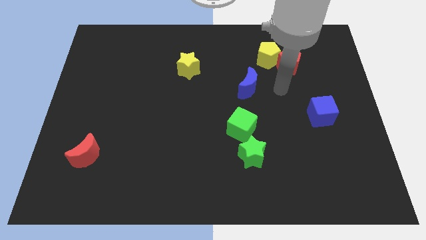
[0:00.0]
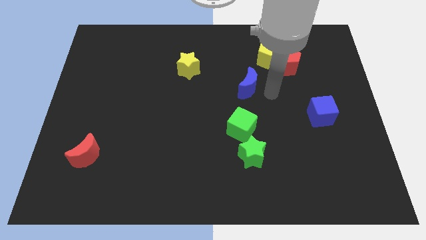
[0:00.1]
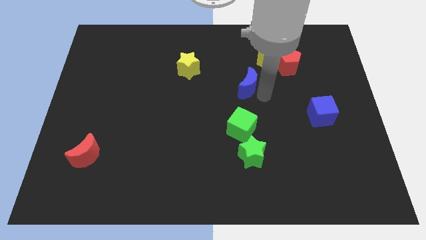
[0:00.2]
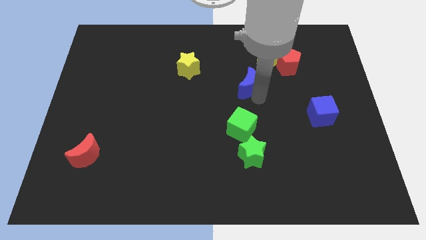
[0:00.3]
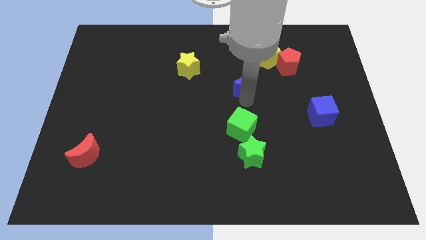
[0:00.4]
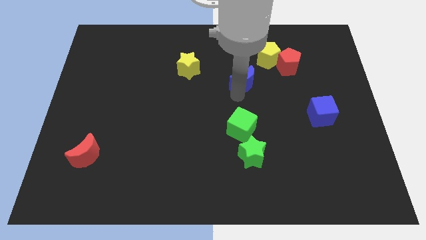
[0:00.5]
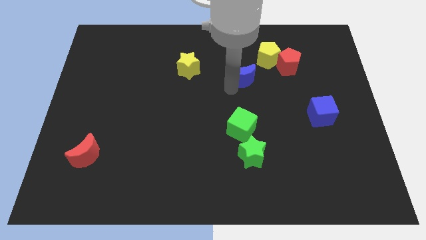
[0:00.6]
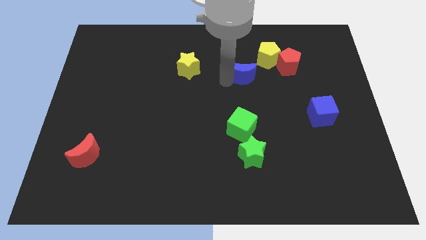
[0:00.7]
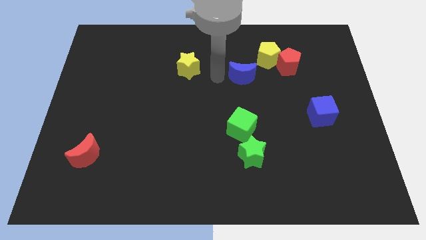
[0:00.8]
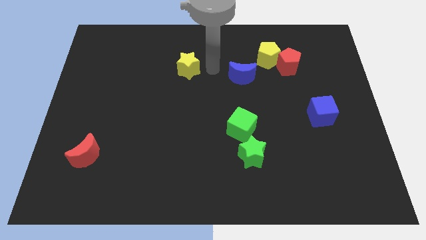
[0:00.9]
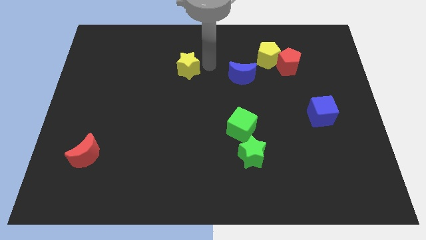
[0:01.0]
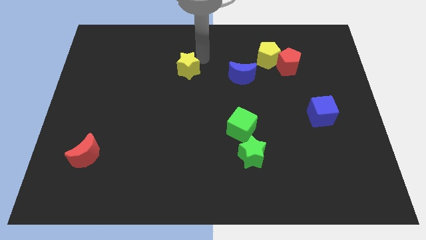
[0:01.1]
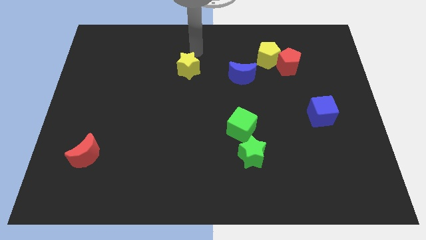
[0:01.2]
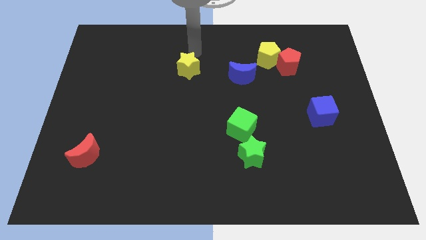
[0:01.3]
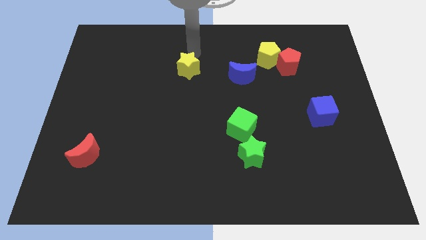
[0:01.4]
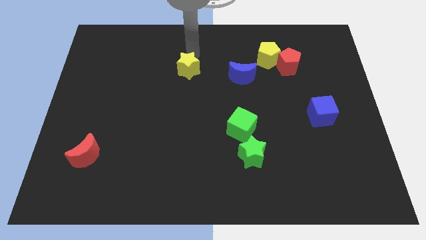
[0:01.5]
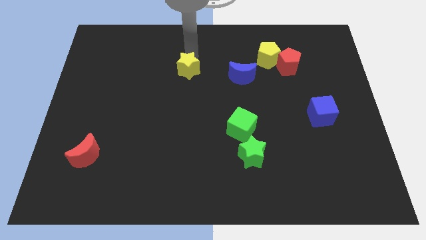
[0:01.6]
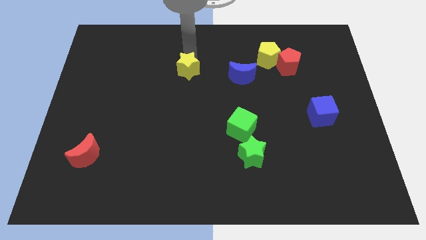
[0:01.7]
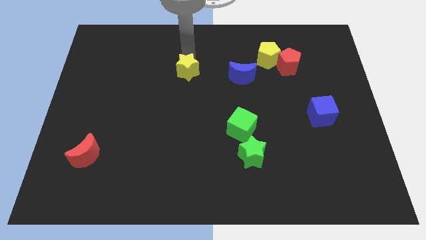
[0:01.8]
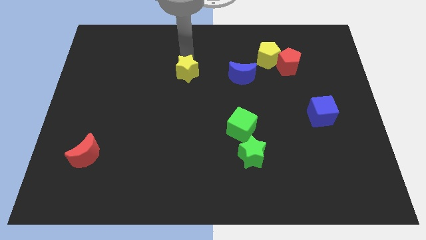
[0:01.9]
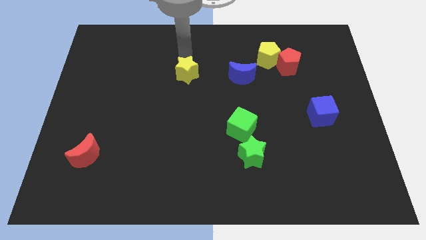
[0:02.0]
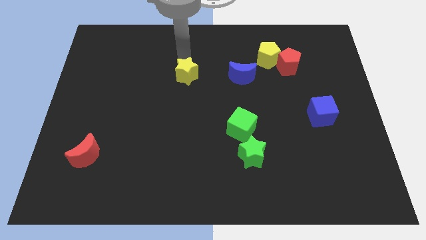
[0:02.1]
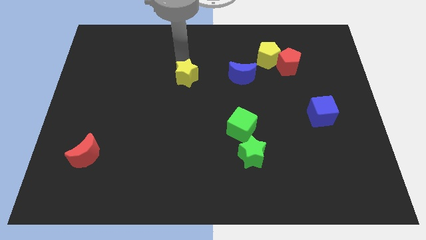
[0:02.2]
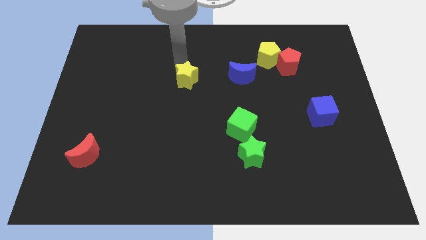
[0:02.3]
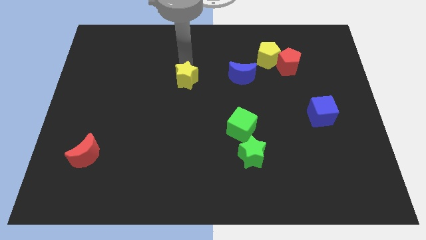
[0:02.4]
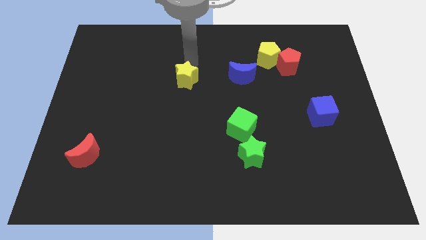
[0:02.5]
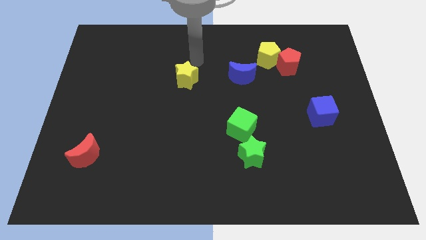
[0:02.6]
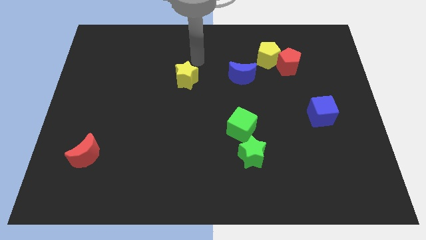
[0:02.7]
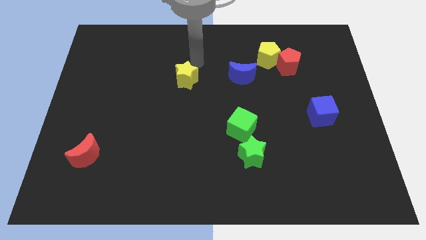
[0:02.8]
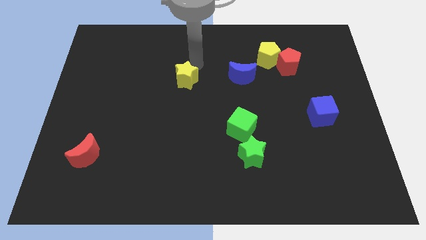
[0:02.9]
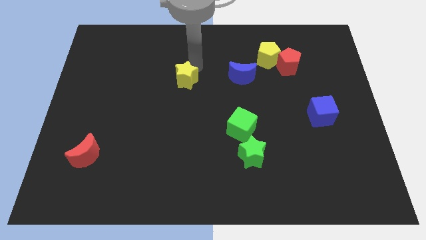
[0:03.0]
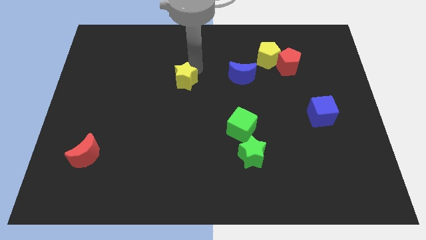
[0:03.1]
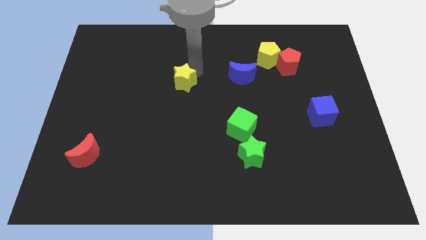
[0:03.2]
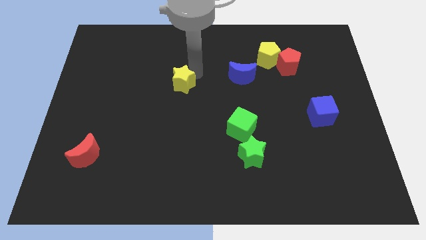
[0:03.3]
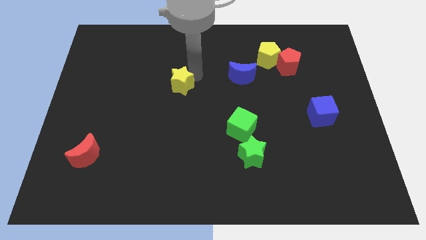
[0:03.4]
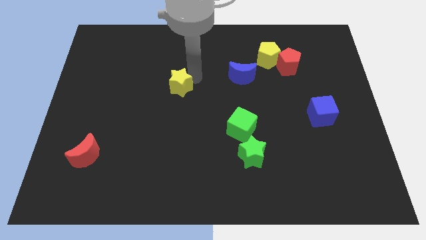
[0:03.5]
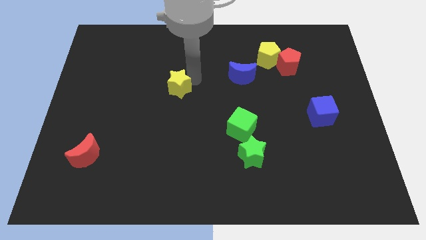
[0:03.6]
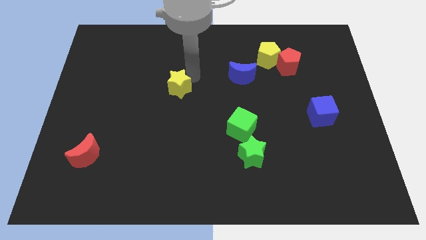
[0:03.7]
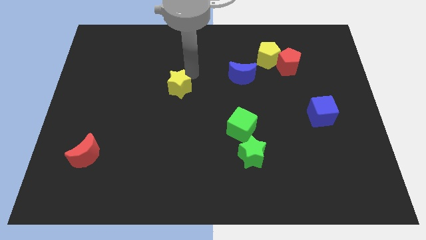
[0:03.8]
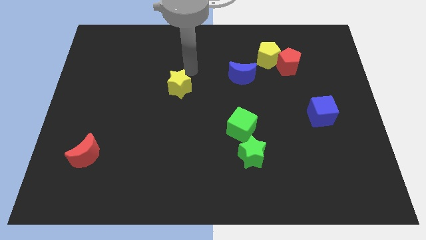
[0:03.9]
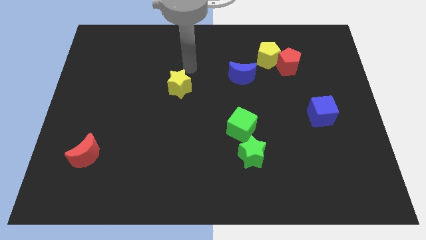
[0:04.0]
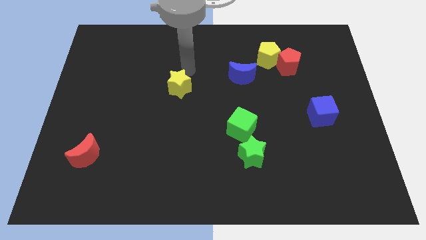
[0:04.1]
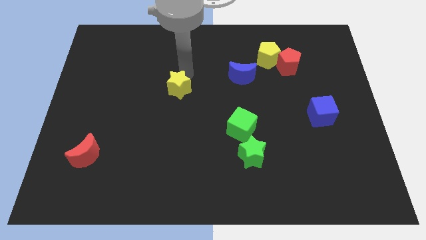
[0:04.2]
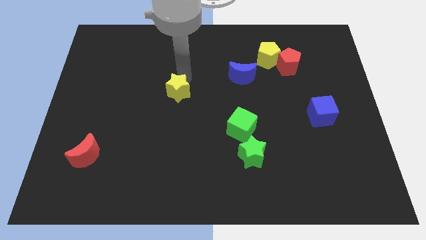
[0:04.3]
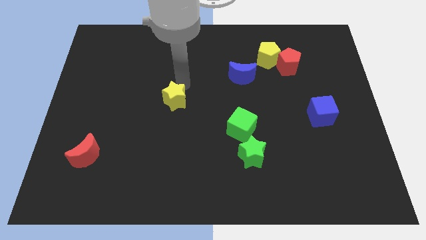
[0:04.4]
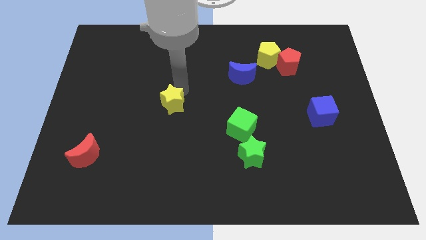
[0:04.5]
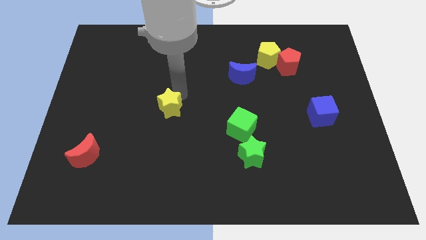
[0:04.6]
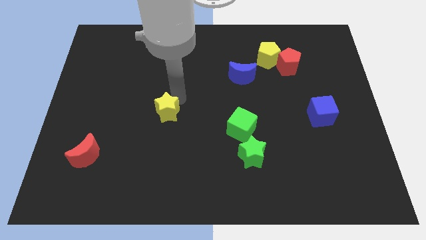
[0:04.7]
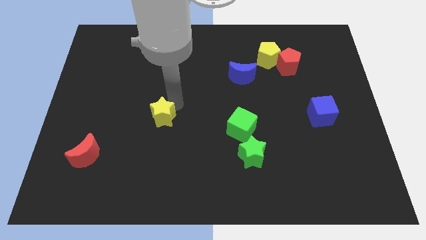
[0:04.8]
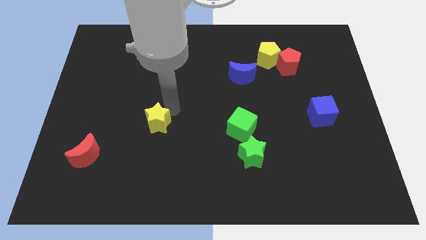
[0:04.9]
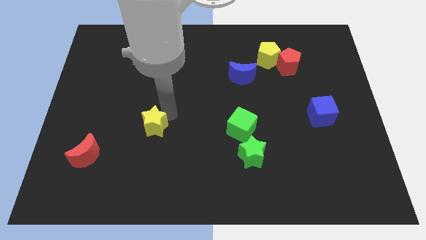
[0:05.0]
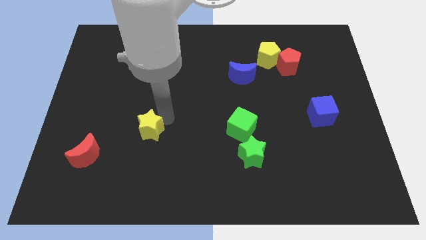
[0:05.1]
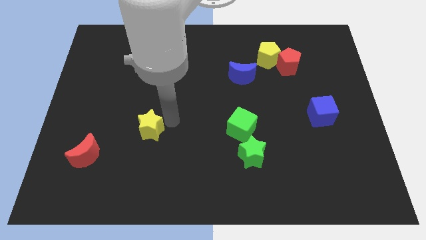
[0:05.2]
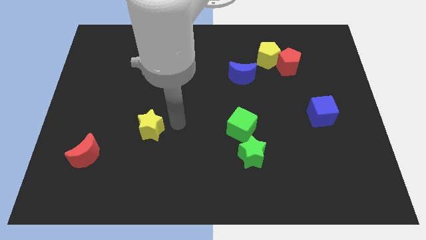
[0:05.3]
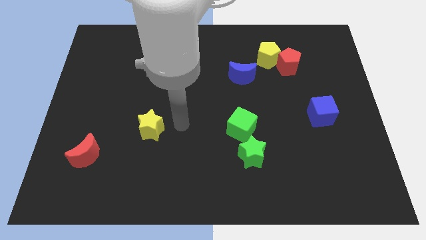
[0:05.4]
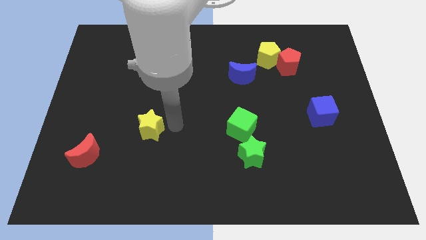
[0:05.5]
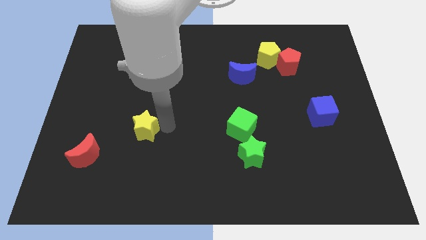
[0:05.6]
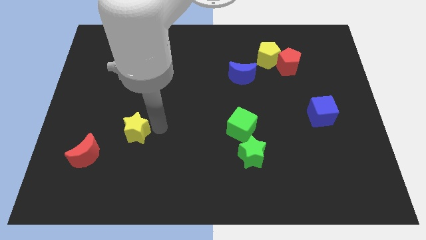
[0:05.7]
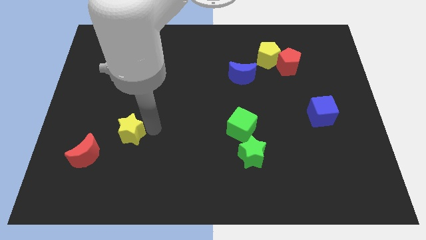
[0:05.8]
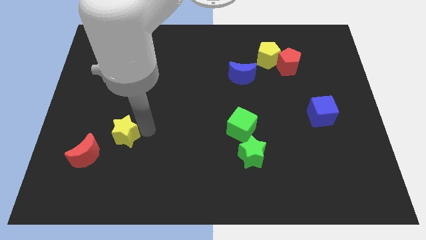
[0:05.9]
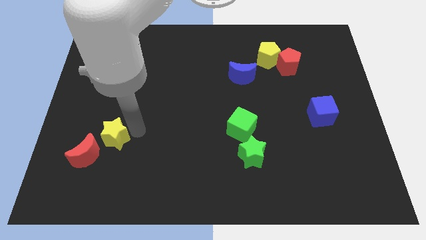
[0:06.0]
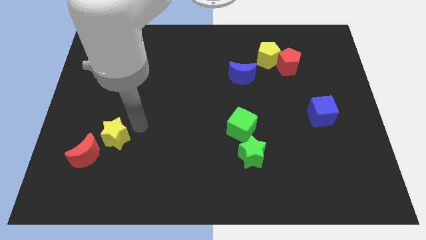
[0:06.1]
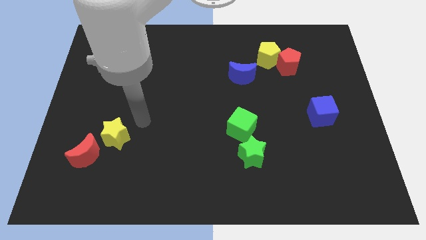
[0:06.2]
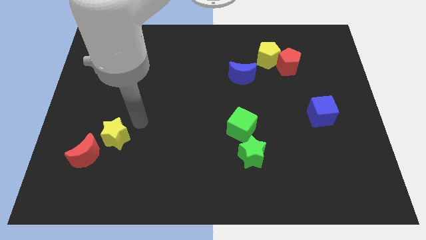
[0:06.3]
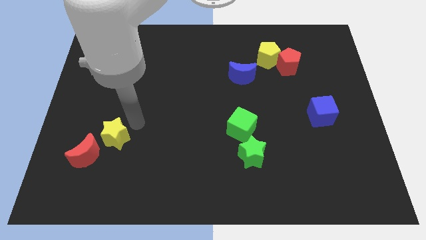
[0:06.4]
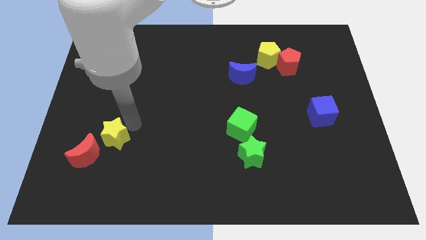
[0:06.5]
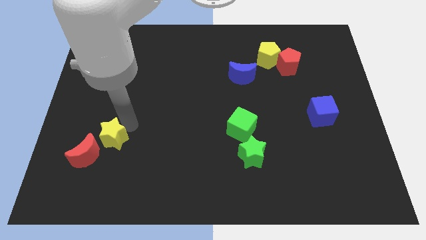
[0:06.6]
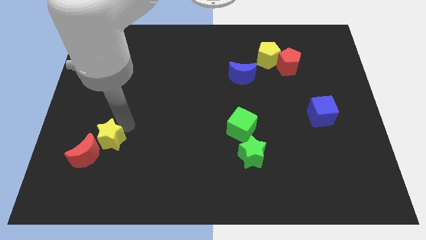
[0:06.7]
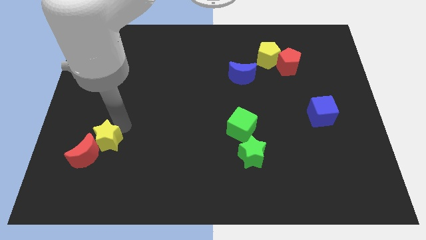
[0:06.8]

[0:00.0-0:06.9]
put the yellow star towards the red moon

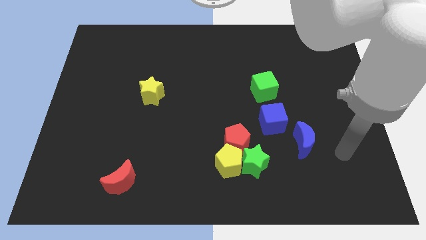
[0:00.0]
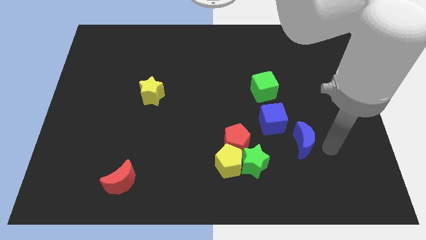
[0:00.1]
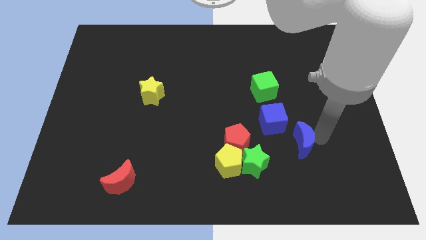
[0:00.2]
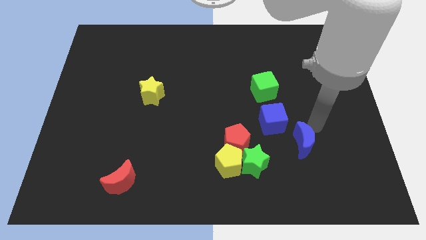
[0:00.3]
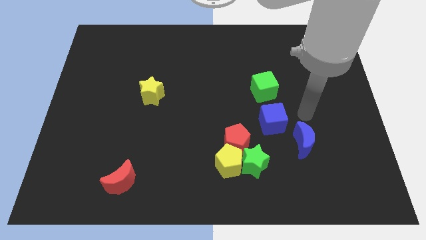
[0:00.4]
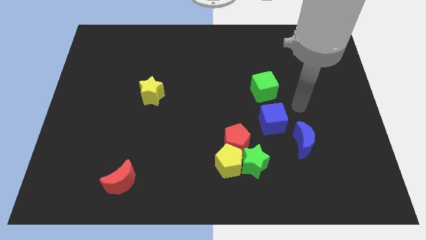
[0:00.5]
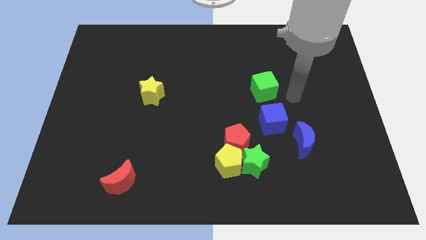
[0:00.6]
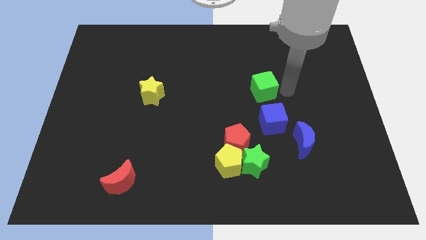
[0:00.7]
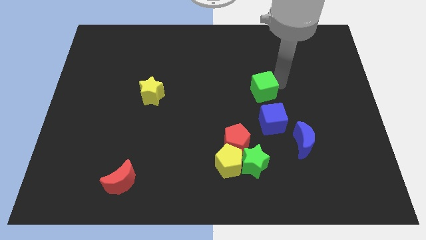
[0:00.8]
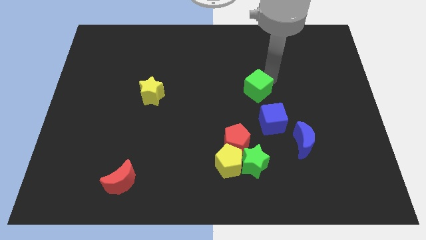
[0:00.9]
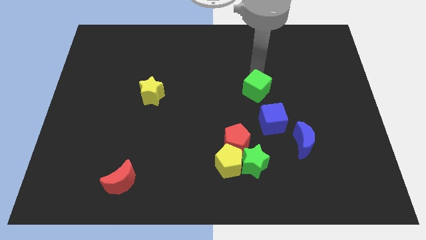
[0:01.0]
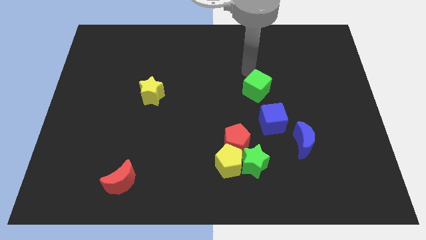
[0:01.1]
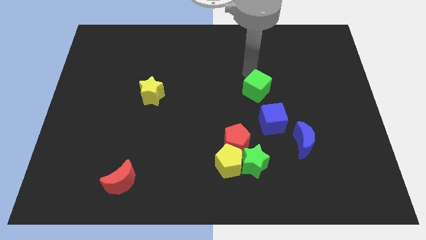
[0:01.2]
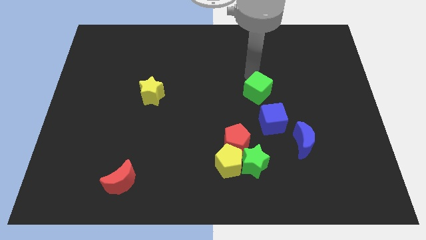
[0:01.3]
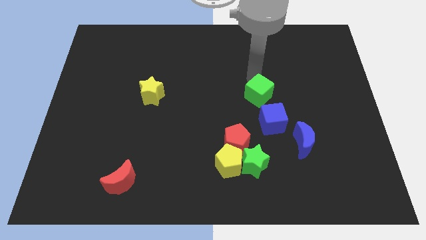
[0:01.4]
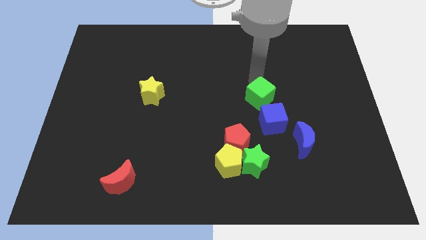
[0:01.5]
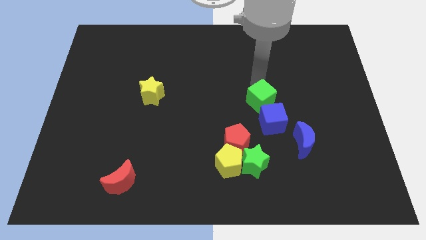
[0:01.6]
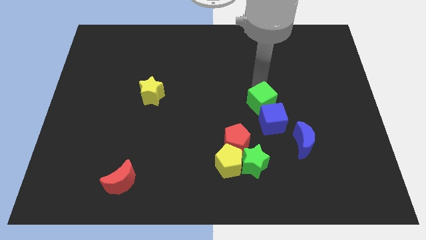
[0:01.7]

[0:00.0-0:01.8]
move the green cube close to the blue cube
